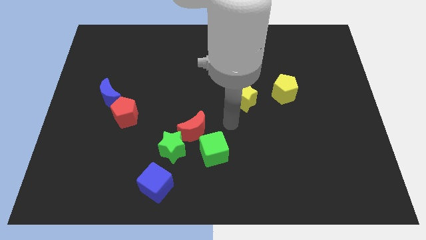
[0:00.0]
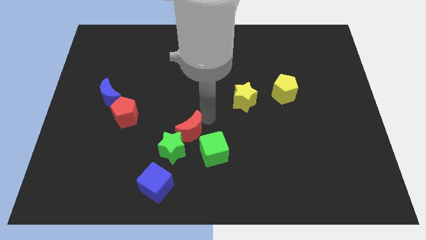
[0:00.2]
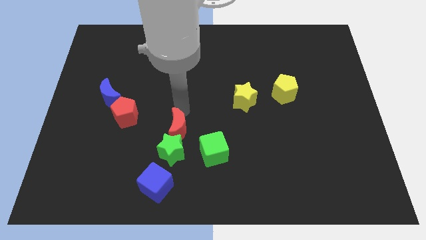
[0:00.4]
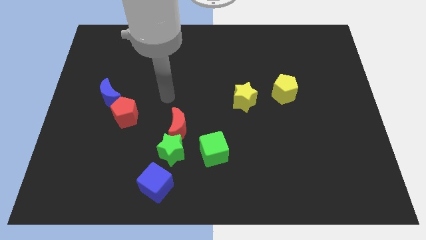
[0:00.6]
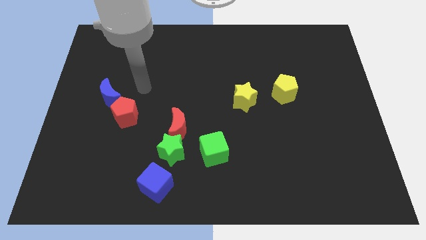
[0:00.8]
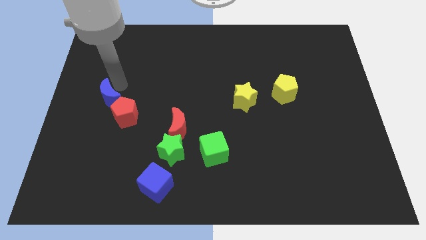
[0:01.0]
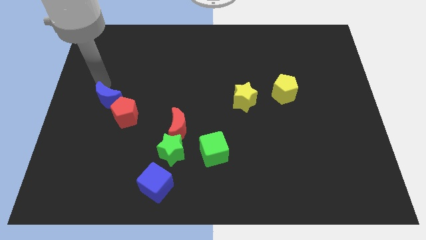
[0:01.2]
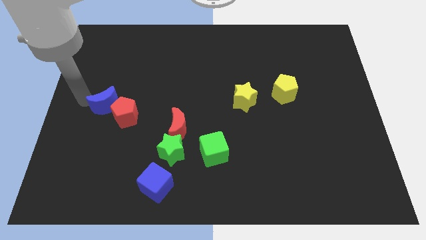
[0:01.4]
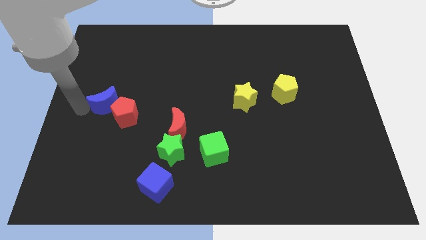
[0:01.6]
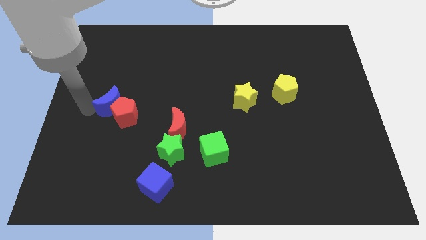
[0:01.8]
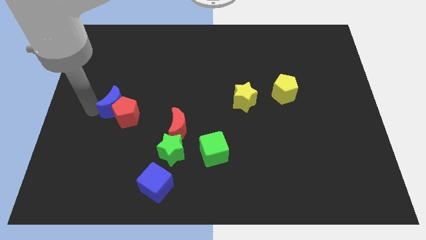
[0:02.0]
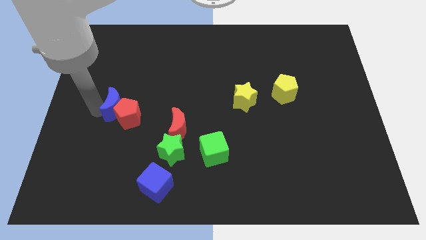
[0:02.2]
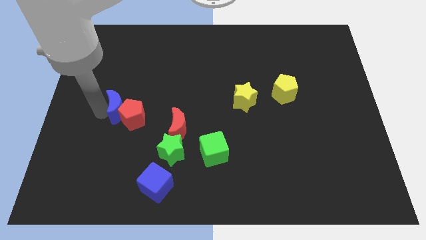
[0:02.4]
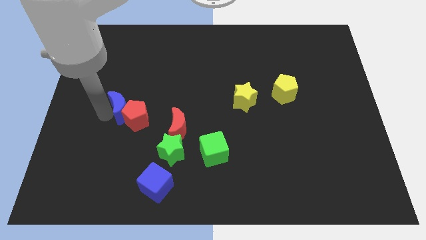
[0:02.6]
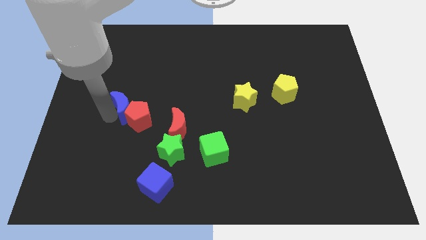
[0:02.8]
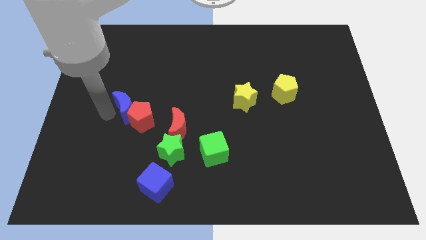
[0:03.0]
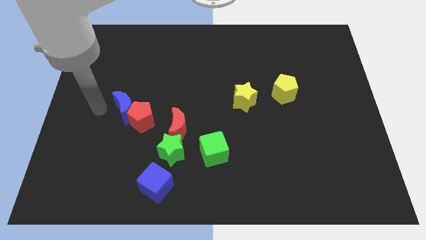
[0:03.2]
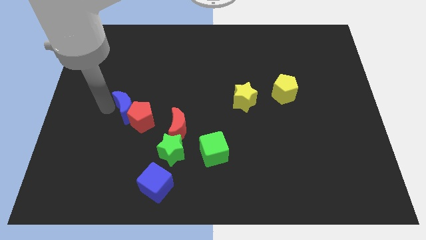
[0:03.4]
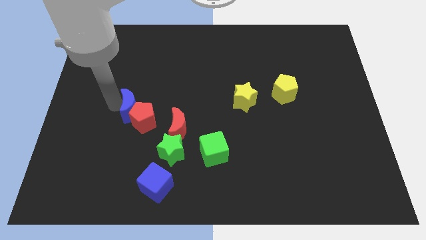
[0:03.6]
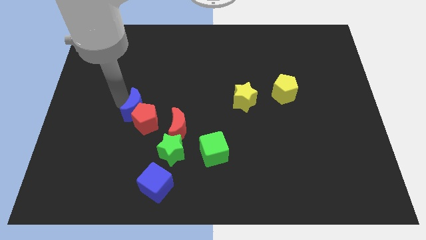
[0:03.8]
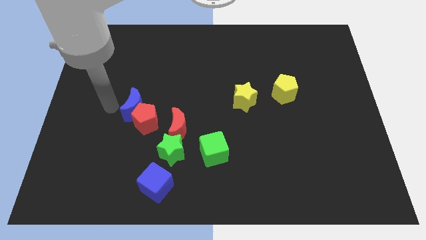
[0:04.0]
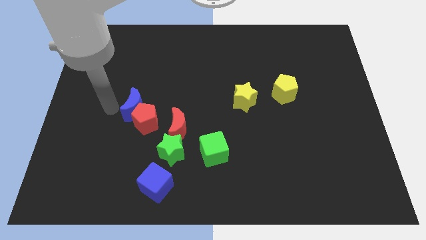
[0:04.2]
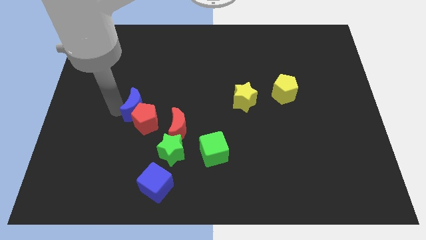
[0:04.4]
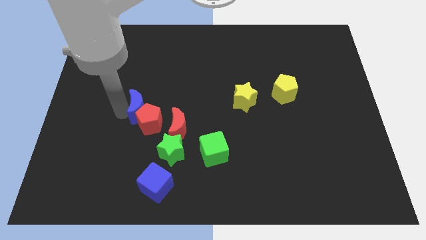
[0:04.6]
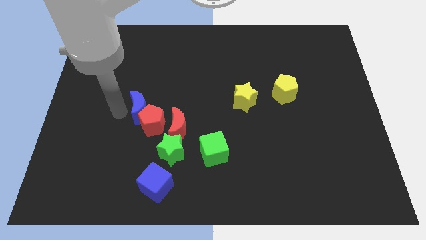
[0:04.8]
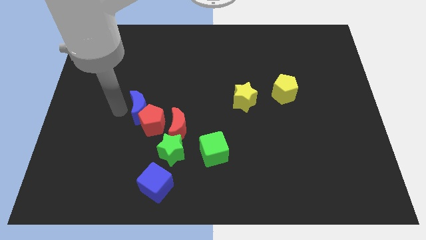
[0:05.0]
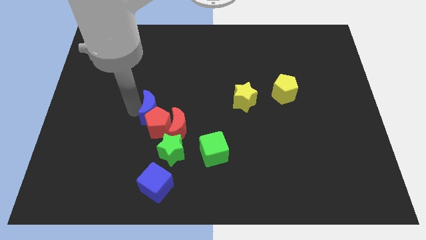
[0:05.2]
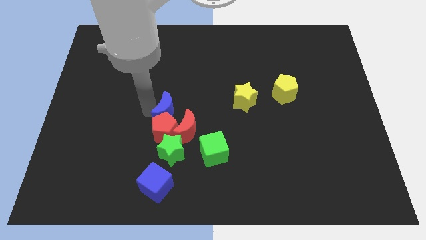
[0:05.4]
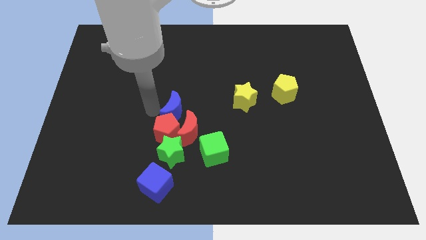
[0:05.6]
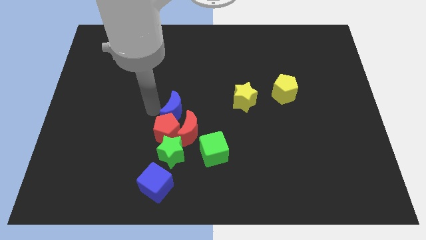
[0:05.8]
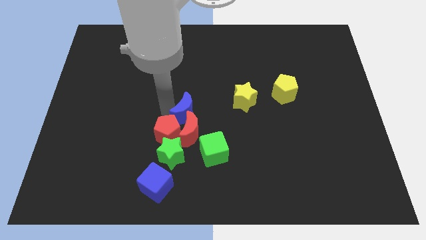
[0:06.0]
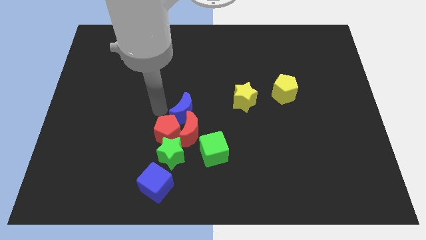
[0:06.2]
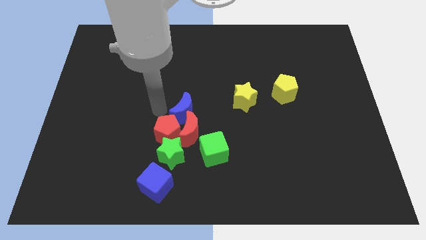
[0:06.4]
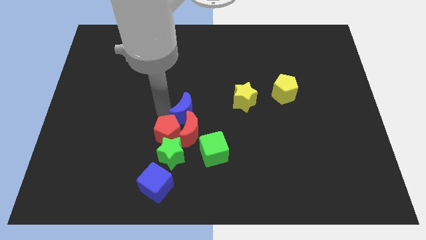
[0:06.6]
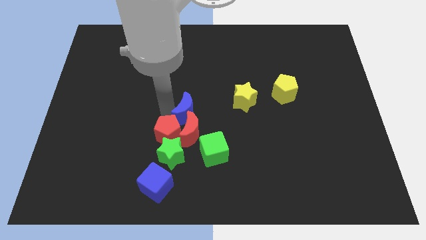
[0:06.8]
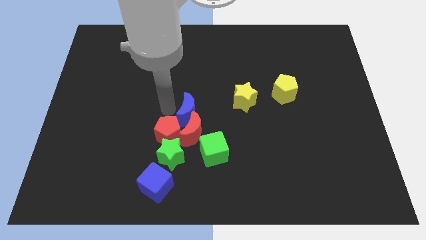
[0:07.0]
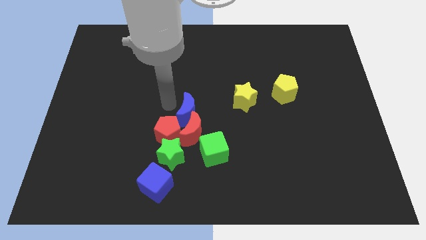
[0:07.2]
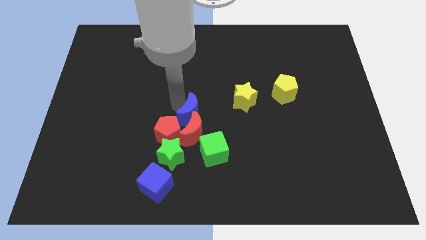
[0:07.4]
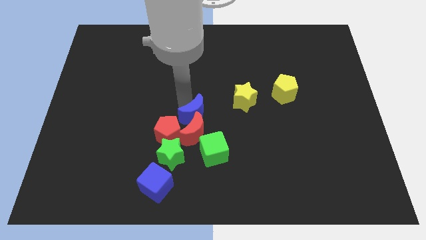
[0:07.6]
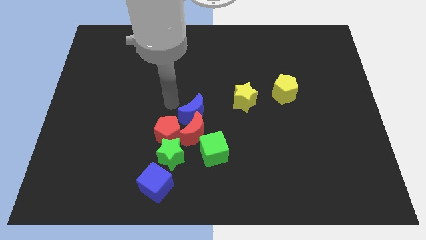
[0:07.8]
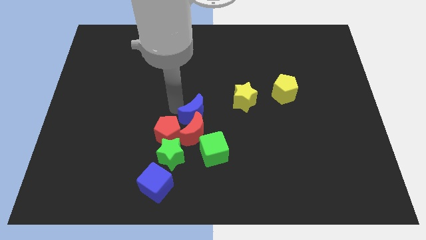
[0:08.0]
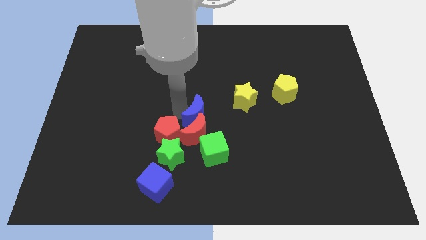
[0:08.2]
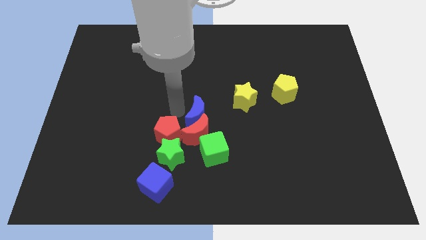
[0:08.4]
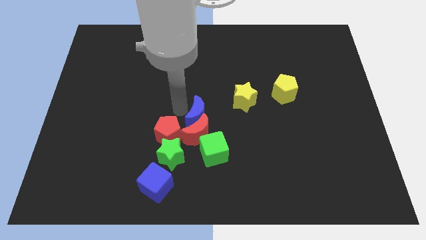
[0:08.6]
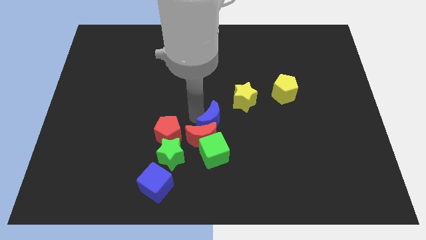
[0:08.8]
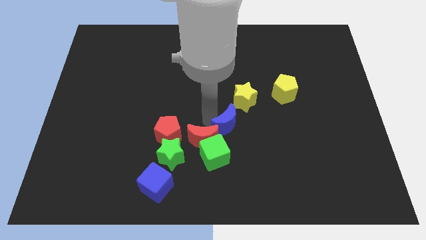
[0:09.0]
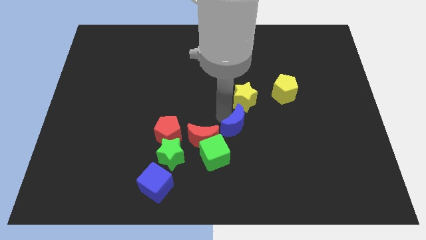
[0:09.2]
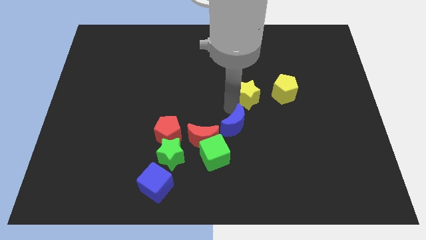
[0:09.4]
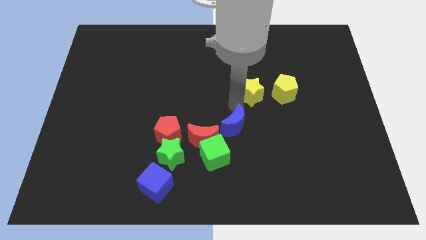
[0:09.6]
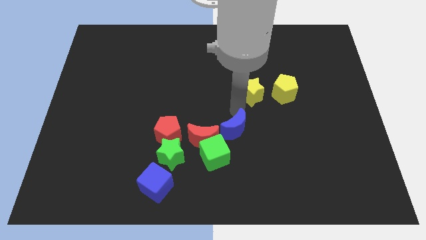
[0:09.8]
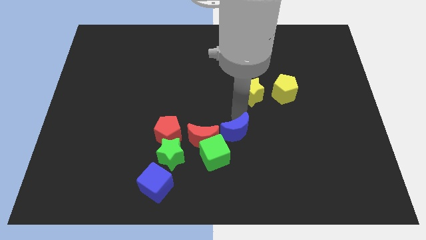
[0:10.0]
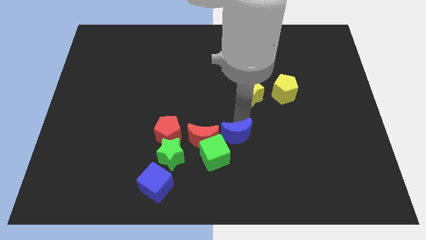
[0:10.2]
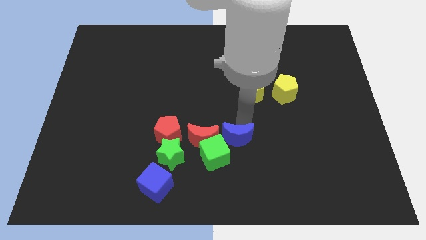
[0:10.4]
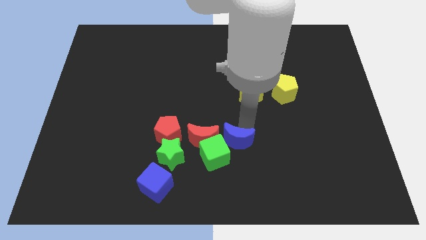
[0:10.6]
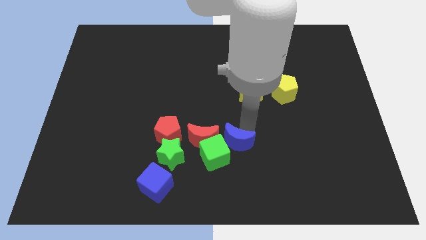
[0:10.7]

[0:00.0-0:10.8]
move the blue moon to the bottom right side of the red moon

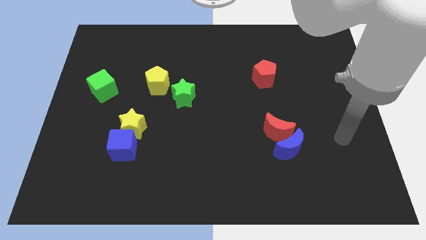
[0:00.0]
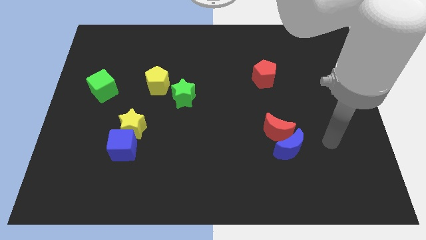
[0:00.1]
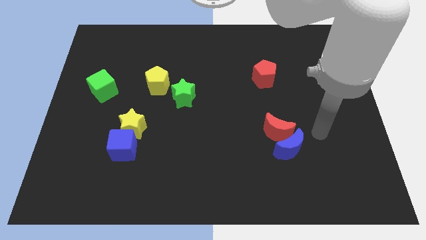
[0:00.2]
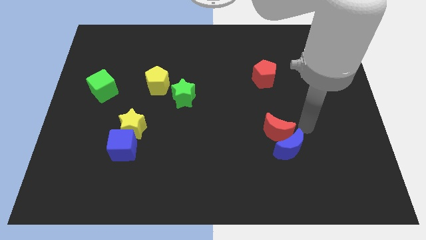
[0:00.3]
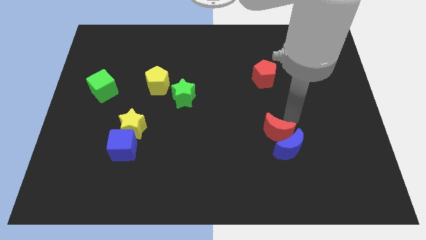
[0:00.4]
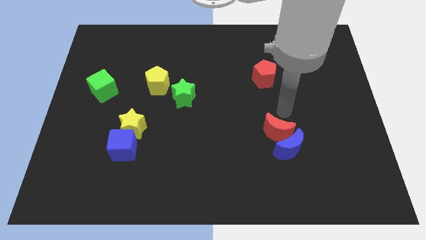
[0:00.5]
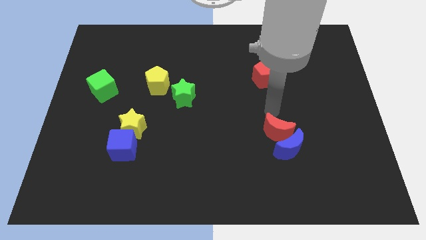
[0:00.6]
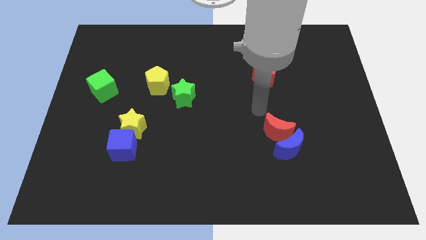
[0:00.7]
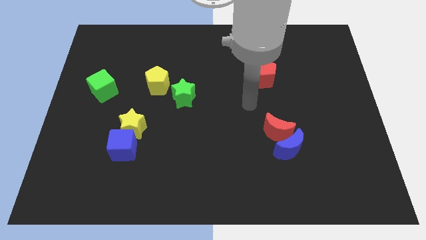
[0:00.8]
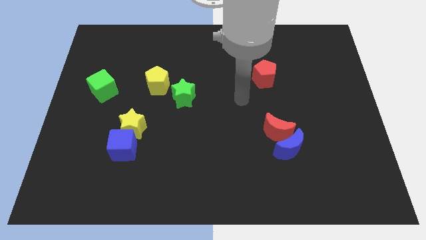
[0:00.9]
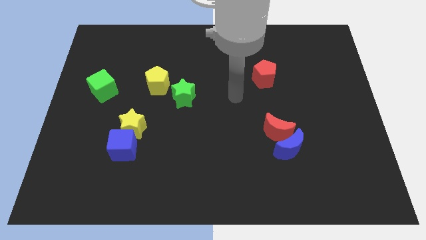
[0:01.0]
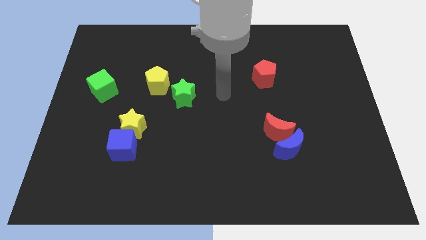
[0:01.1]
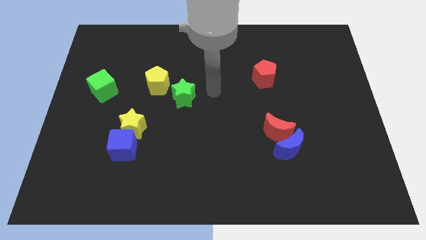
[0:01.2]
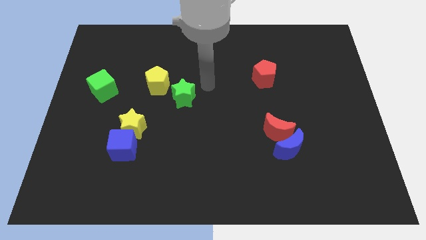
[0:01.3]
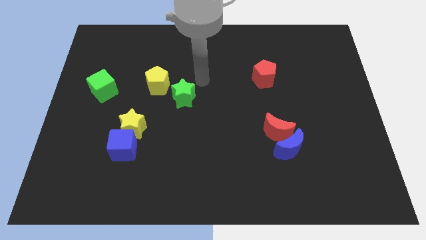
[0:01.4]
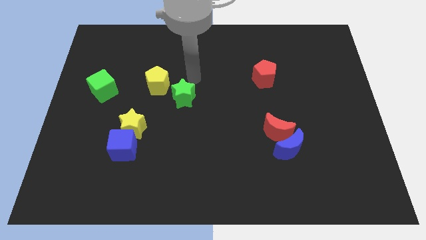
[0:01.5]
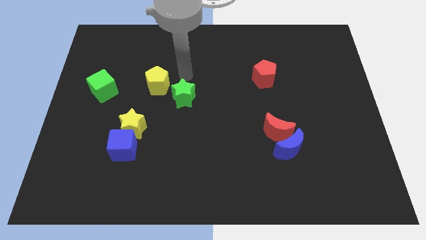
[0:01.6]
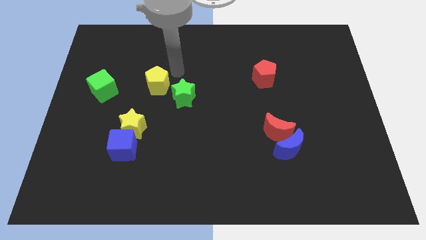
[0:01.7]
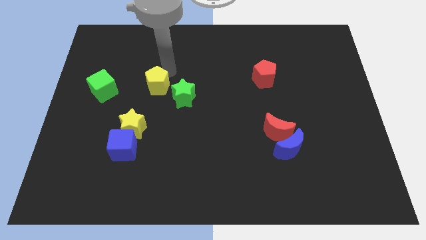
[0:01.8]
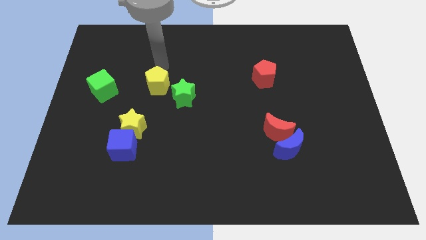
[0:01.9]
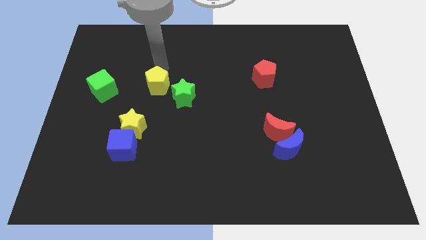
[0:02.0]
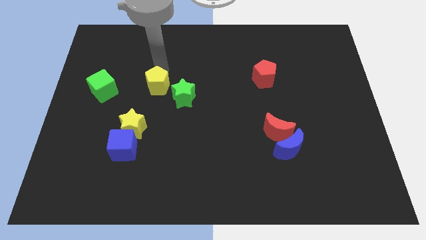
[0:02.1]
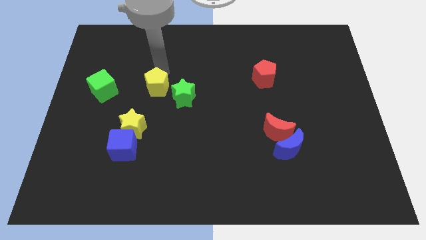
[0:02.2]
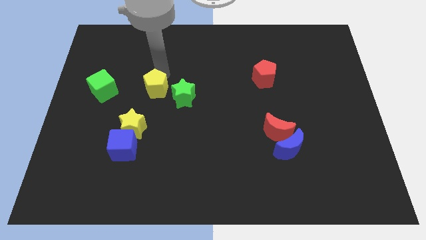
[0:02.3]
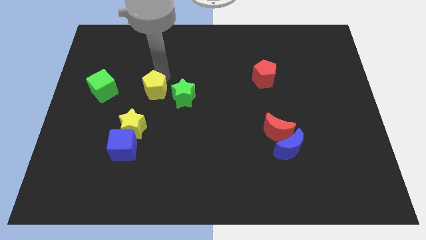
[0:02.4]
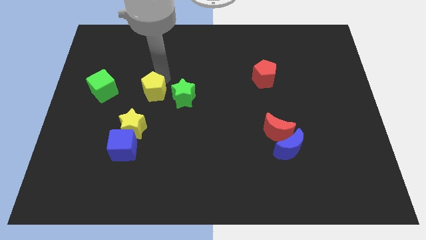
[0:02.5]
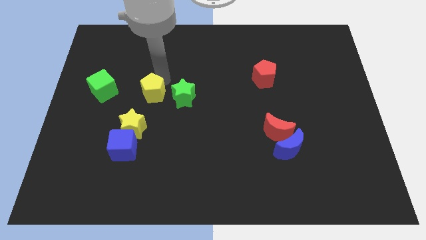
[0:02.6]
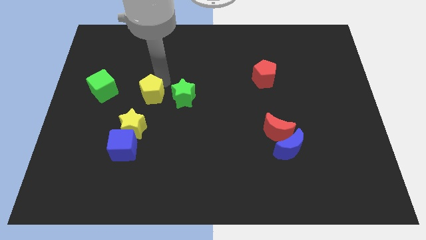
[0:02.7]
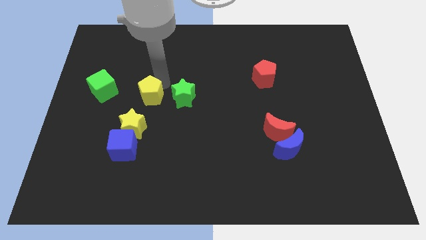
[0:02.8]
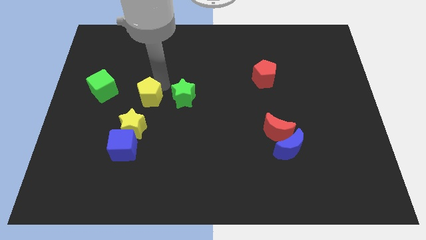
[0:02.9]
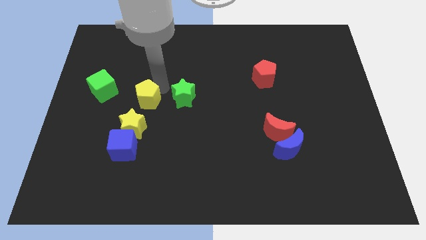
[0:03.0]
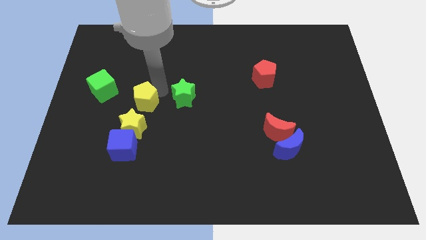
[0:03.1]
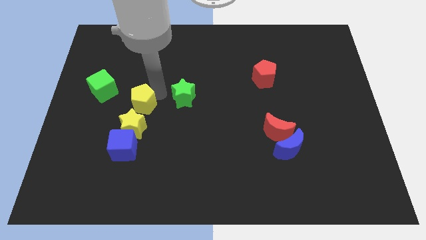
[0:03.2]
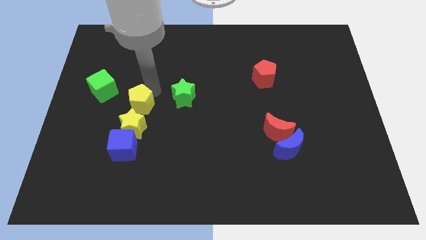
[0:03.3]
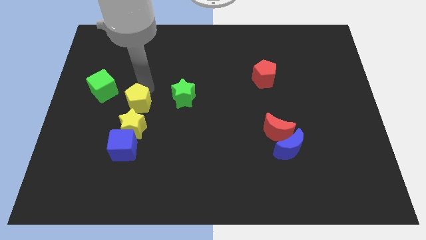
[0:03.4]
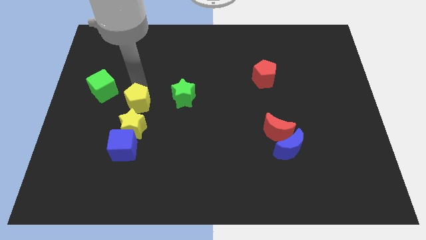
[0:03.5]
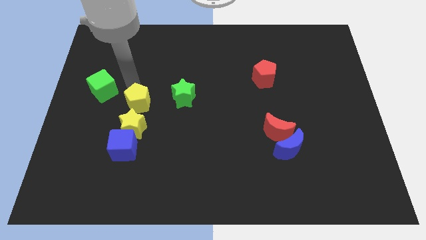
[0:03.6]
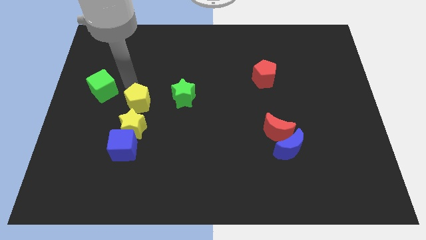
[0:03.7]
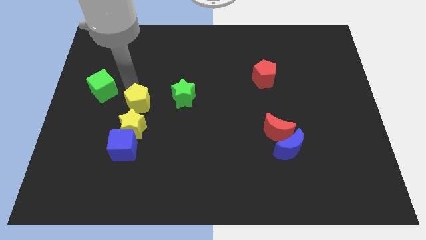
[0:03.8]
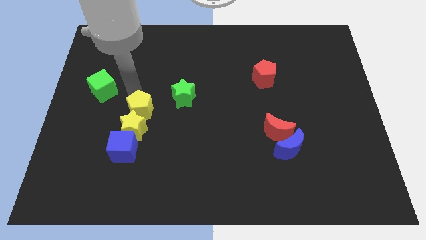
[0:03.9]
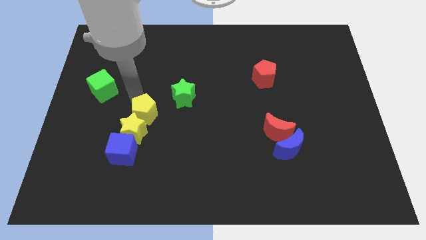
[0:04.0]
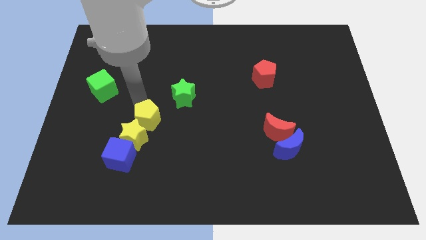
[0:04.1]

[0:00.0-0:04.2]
push the yellow pentagon to the top right of the blue cube
